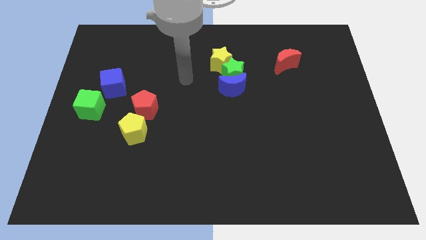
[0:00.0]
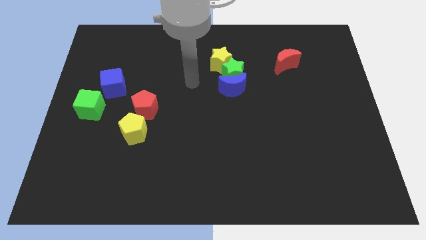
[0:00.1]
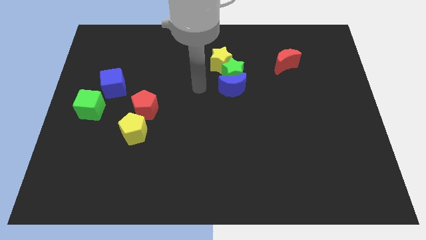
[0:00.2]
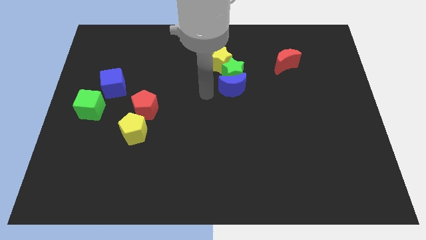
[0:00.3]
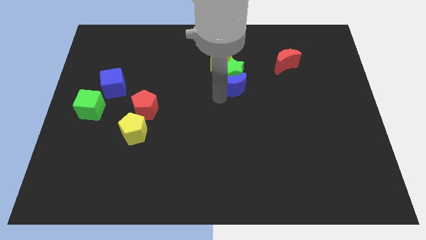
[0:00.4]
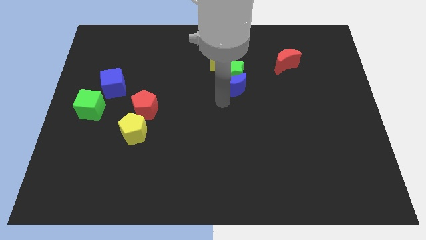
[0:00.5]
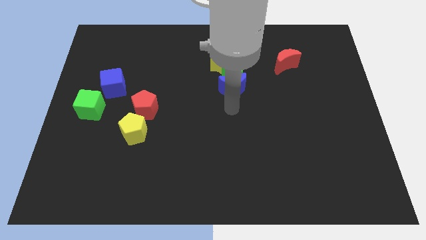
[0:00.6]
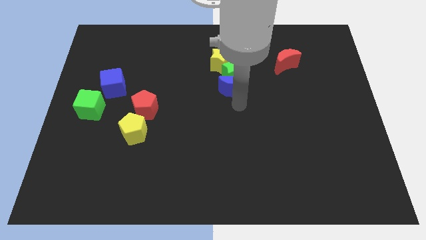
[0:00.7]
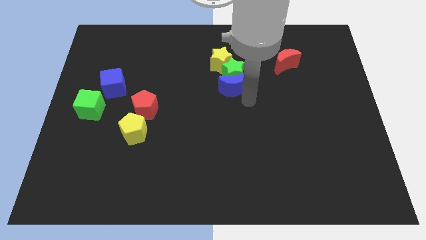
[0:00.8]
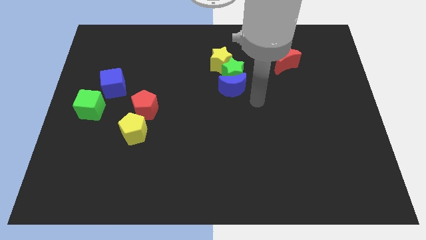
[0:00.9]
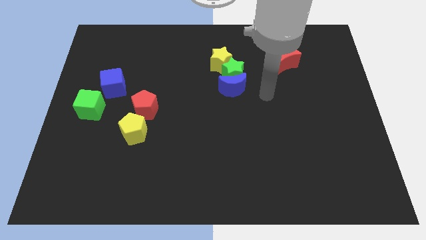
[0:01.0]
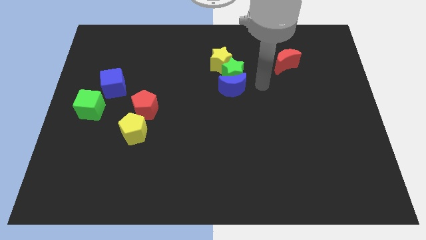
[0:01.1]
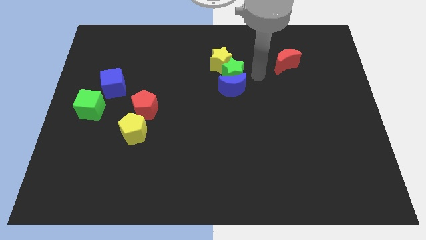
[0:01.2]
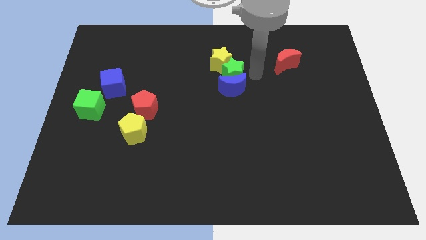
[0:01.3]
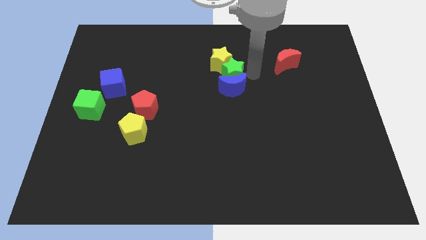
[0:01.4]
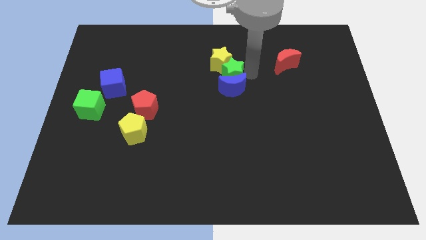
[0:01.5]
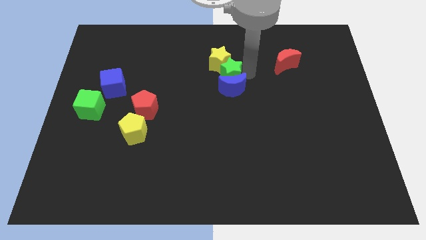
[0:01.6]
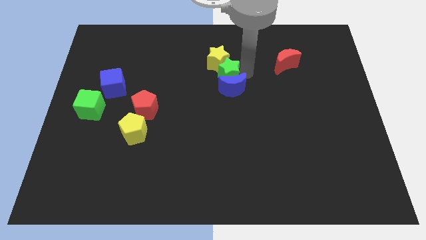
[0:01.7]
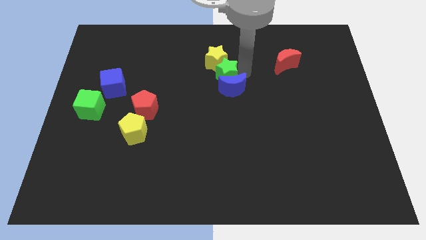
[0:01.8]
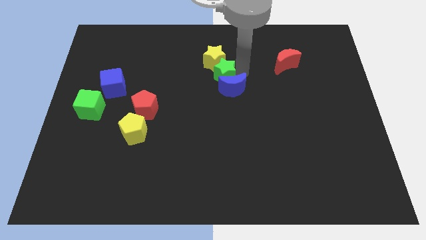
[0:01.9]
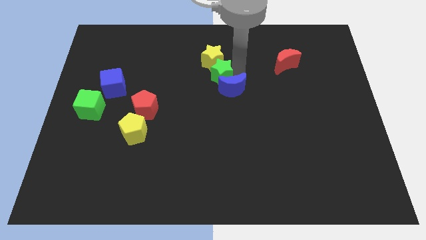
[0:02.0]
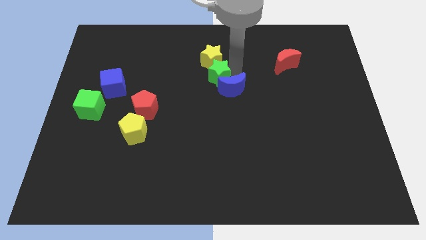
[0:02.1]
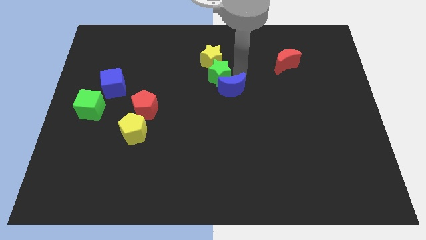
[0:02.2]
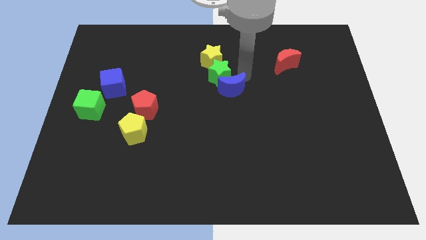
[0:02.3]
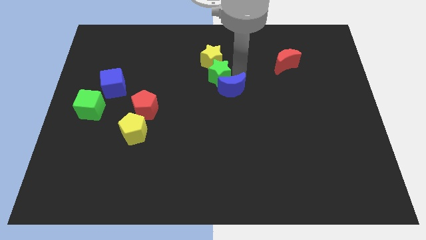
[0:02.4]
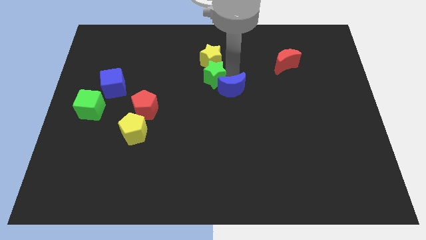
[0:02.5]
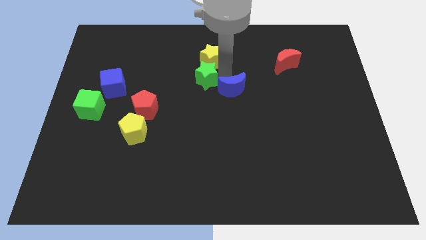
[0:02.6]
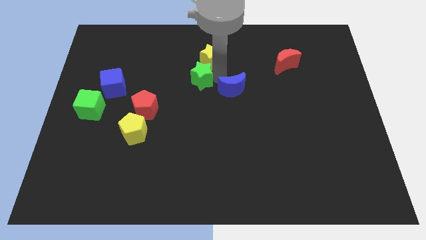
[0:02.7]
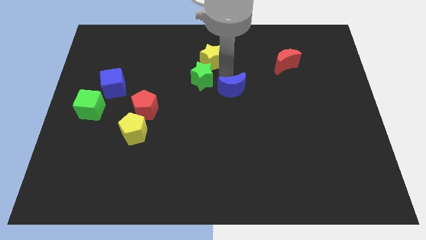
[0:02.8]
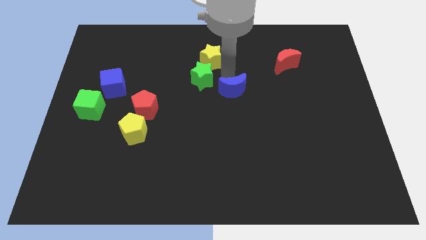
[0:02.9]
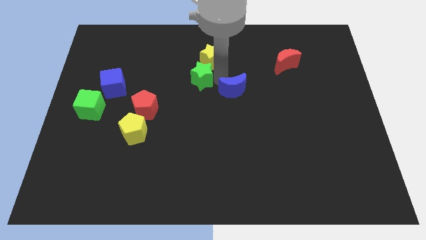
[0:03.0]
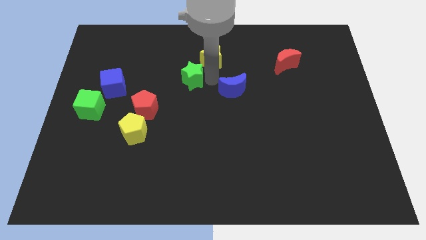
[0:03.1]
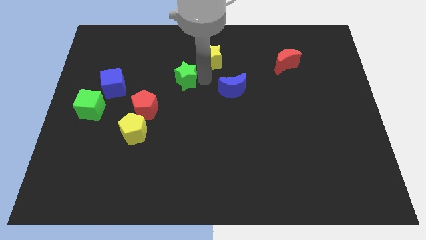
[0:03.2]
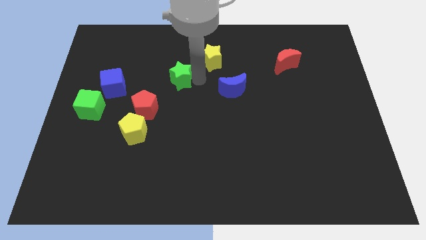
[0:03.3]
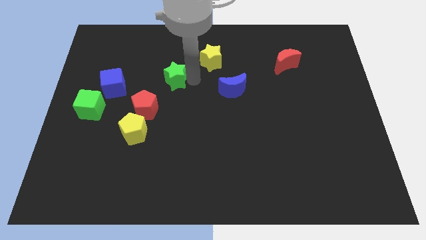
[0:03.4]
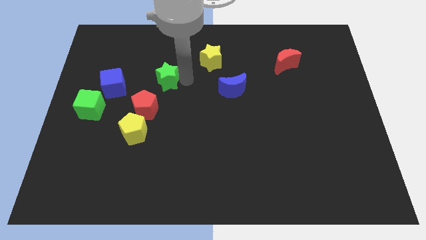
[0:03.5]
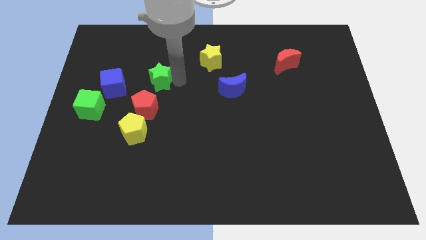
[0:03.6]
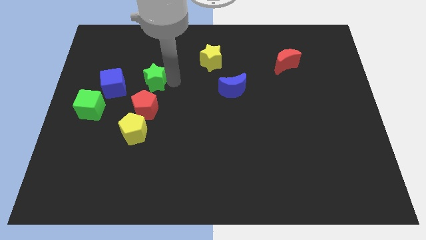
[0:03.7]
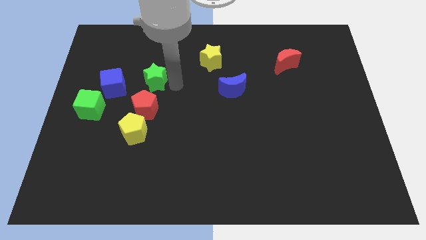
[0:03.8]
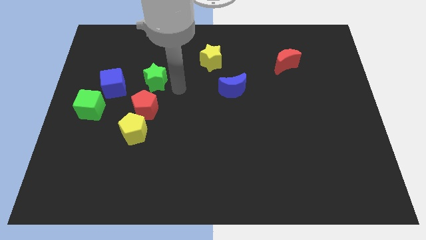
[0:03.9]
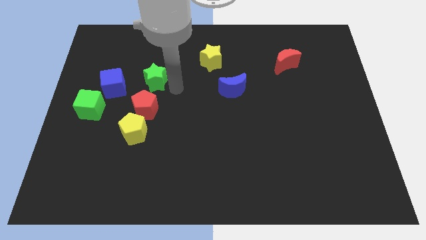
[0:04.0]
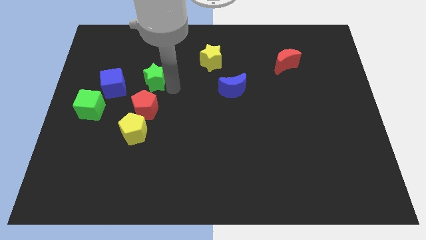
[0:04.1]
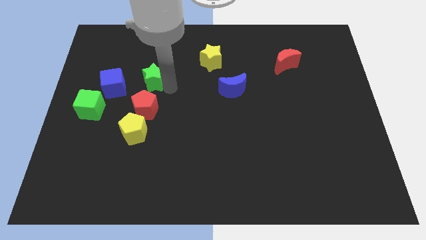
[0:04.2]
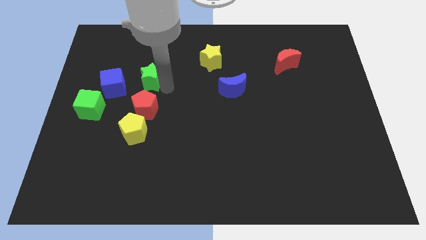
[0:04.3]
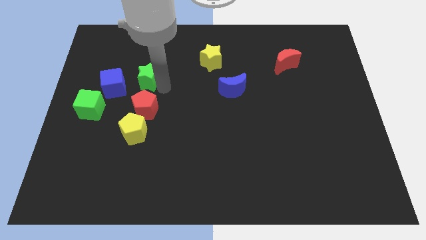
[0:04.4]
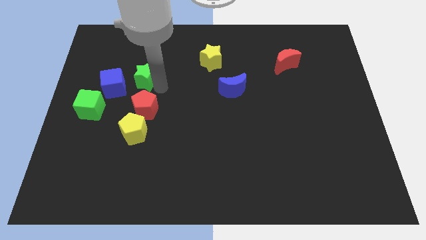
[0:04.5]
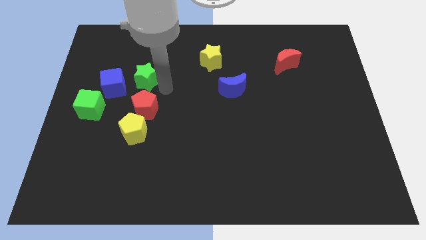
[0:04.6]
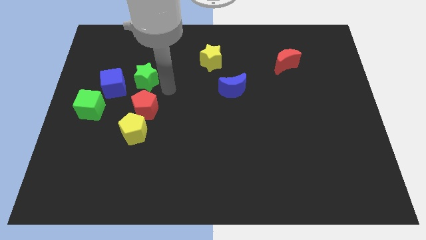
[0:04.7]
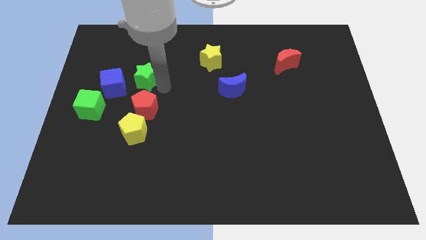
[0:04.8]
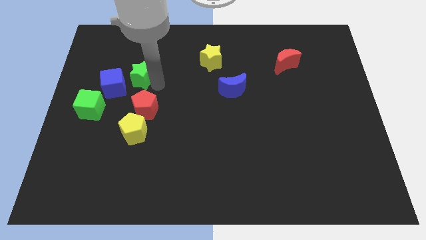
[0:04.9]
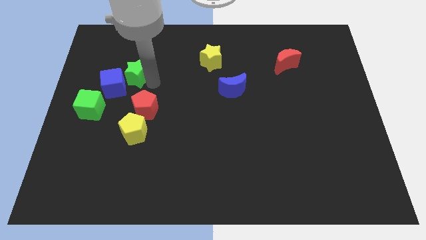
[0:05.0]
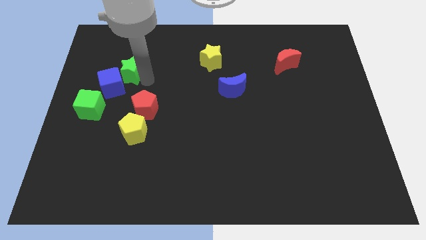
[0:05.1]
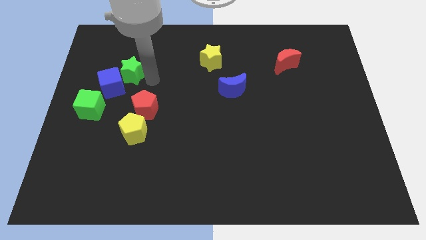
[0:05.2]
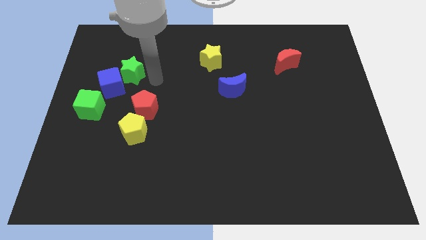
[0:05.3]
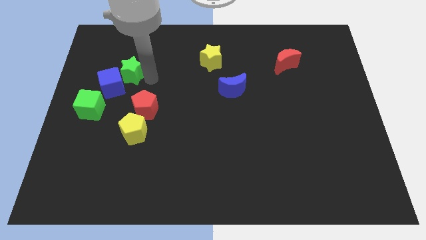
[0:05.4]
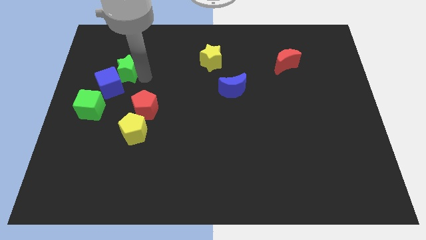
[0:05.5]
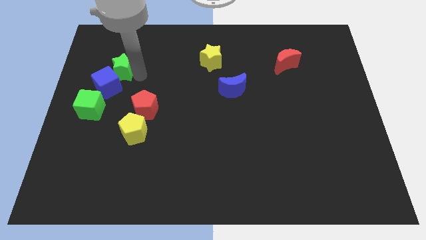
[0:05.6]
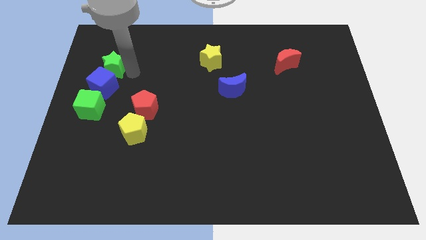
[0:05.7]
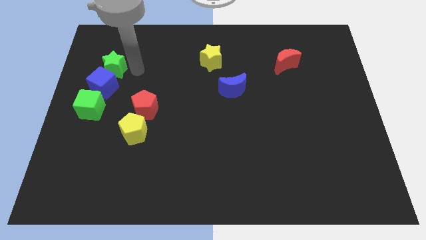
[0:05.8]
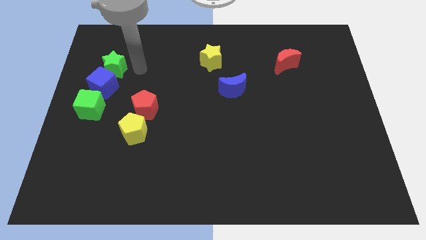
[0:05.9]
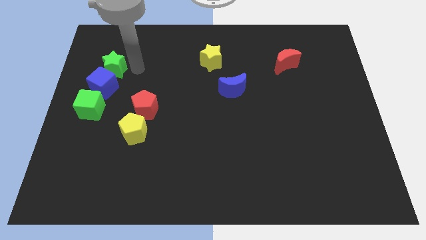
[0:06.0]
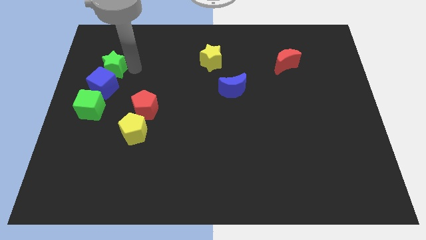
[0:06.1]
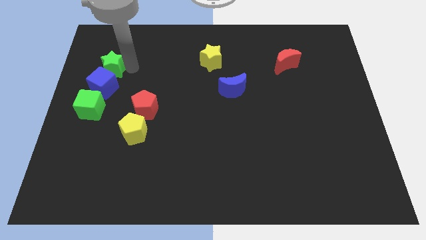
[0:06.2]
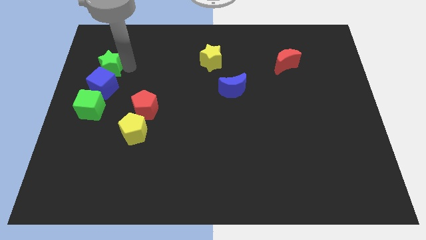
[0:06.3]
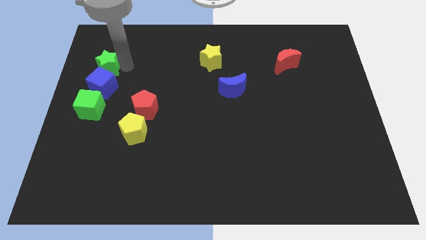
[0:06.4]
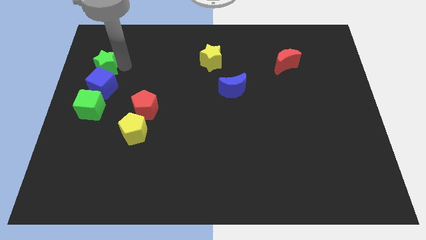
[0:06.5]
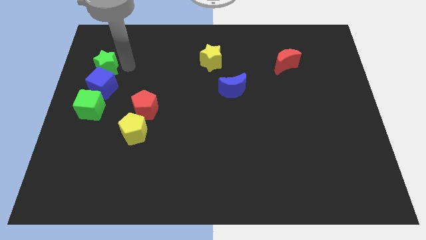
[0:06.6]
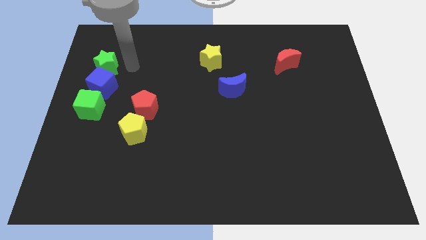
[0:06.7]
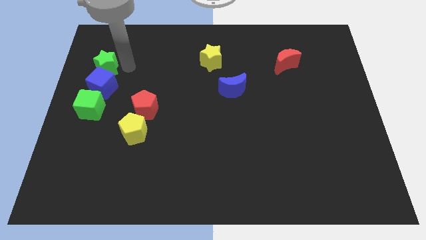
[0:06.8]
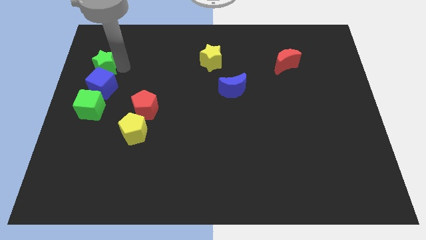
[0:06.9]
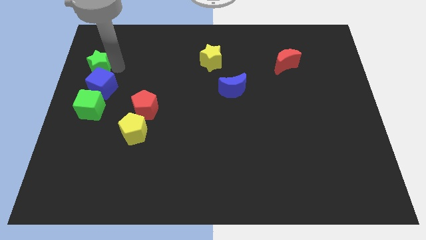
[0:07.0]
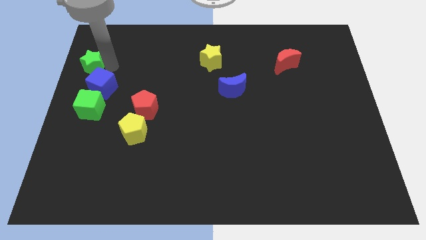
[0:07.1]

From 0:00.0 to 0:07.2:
slide the green star to the left side of the board

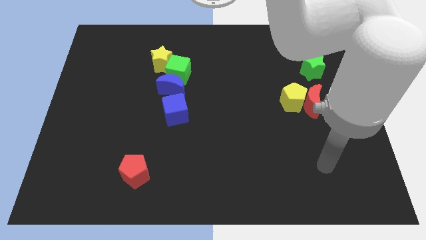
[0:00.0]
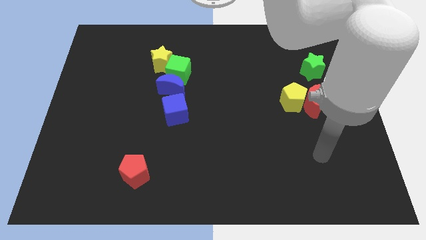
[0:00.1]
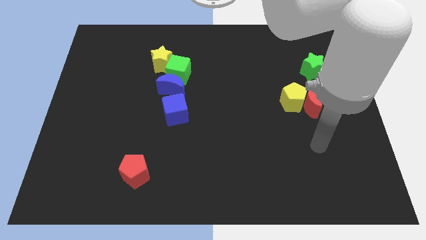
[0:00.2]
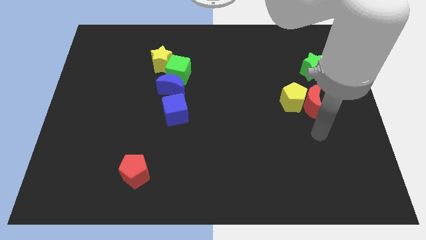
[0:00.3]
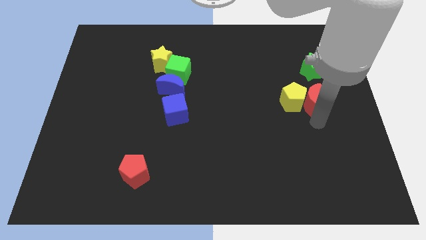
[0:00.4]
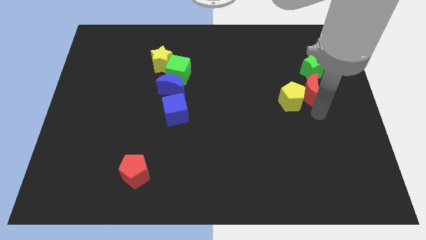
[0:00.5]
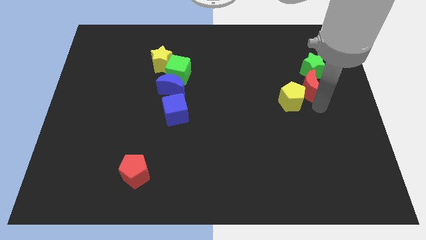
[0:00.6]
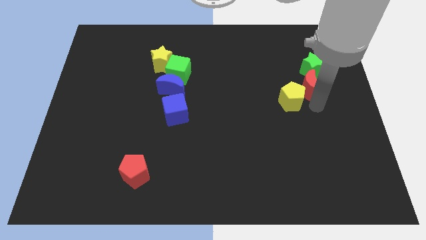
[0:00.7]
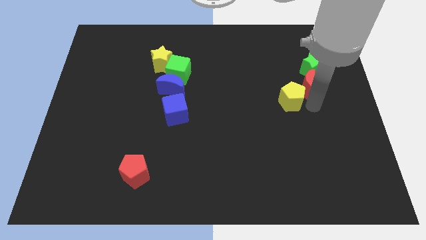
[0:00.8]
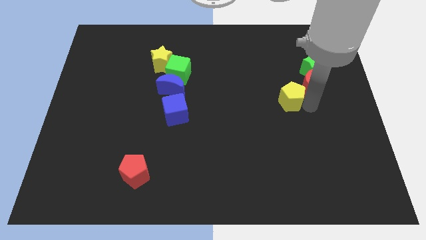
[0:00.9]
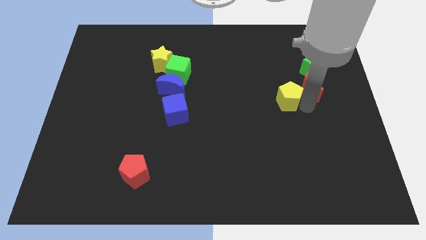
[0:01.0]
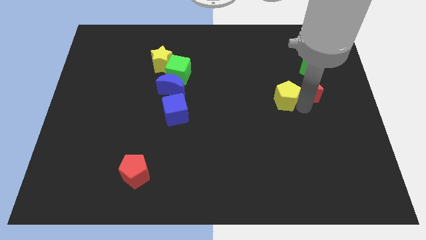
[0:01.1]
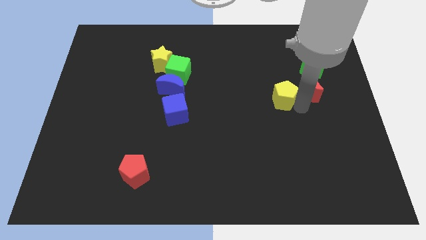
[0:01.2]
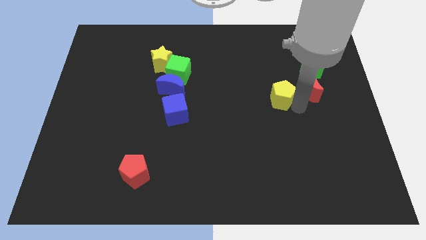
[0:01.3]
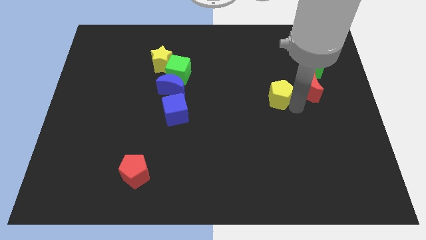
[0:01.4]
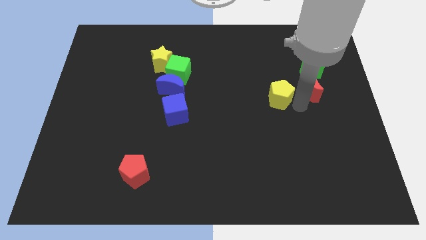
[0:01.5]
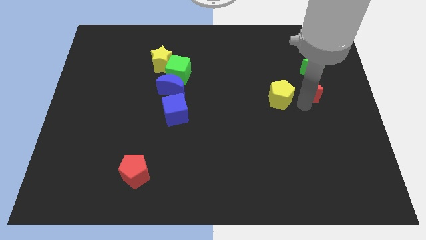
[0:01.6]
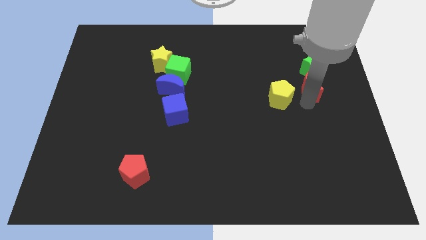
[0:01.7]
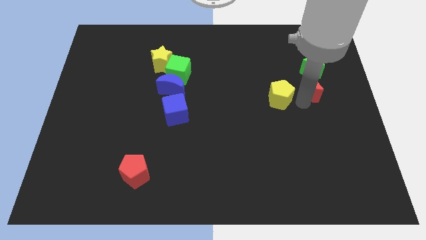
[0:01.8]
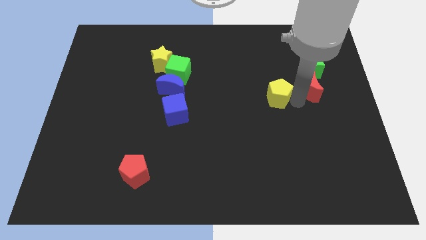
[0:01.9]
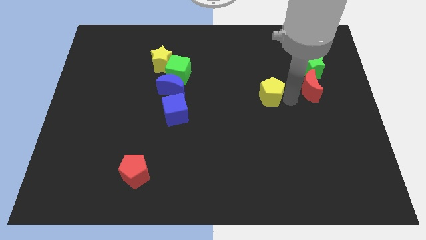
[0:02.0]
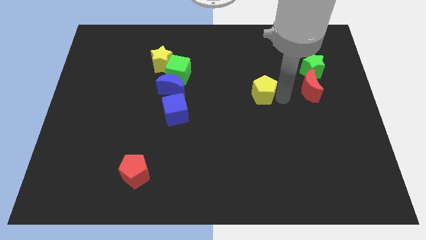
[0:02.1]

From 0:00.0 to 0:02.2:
move the yellow pentagon to the center of the board
